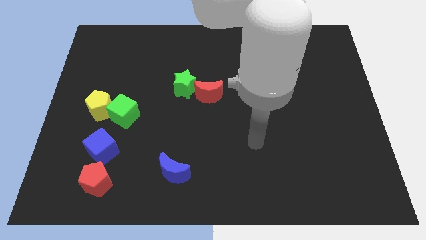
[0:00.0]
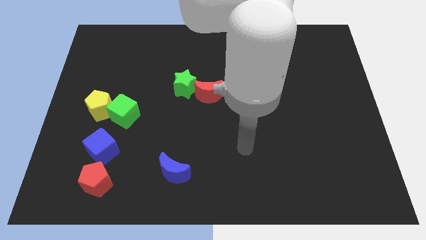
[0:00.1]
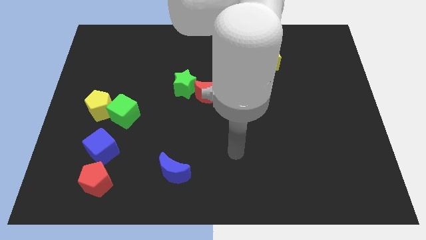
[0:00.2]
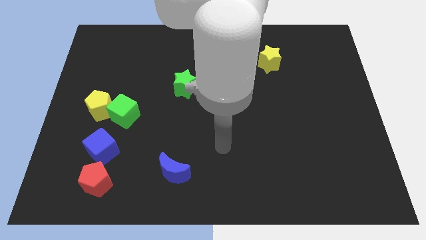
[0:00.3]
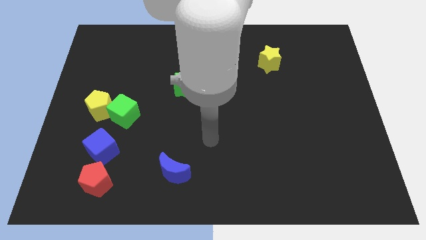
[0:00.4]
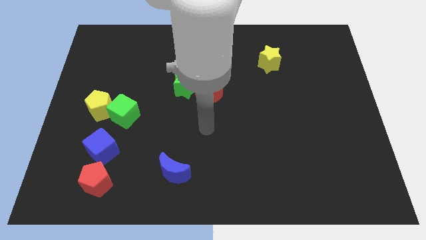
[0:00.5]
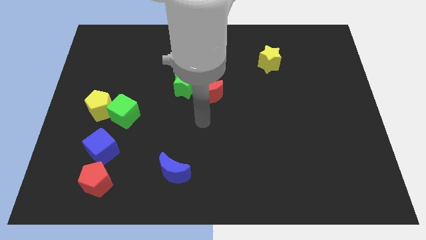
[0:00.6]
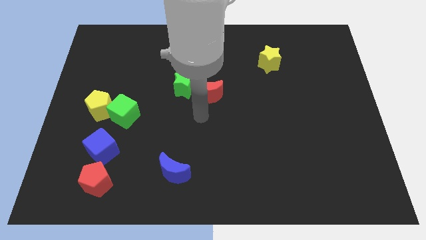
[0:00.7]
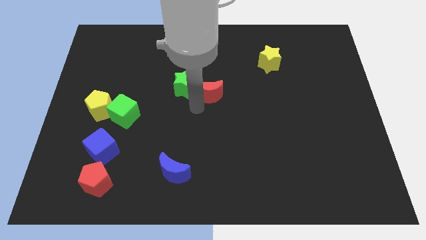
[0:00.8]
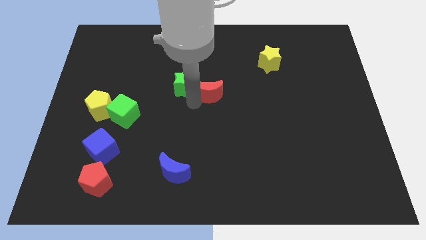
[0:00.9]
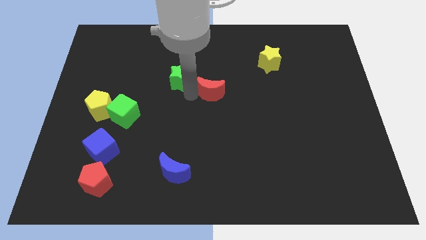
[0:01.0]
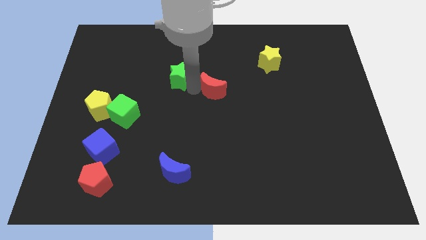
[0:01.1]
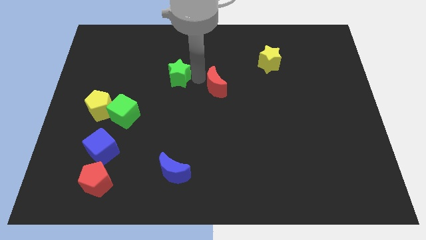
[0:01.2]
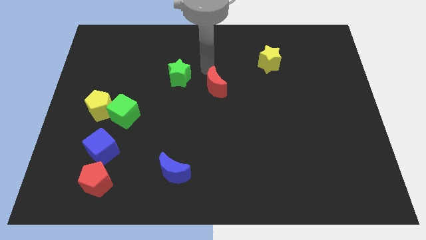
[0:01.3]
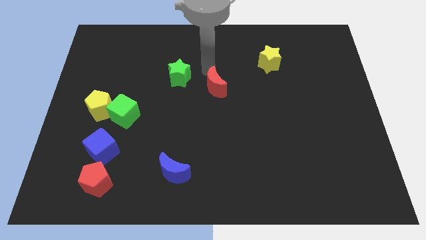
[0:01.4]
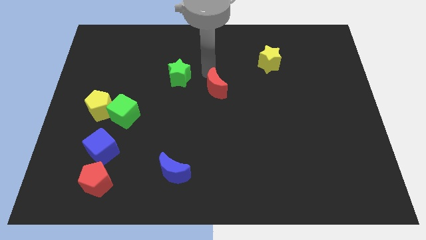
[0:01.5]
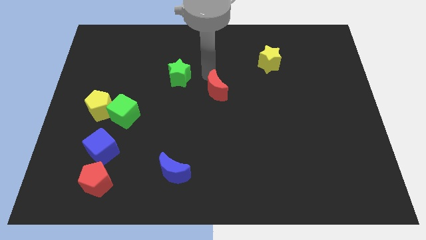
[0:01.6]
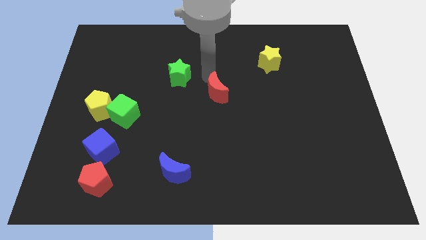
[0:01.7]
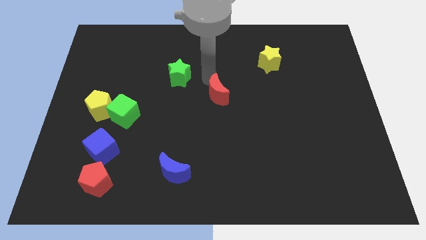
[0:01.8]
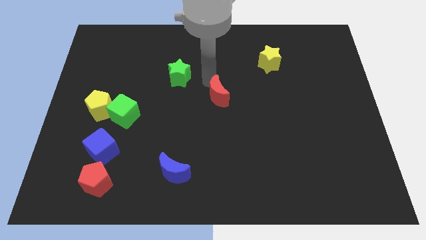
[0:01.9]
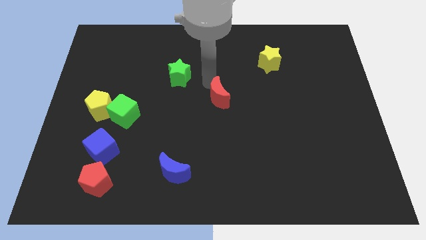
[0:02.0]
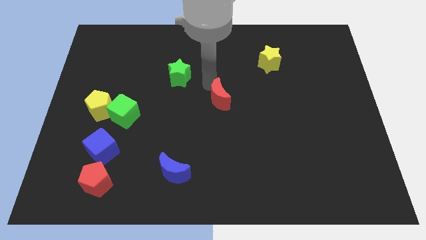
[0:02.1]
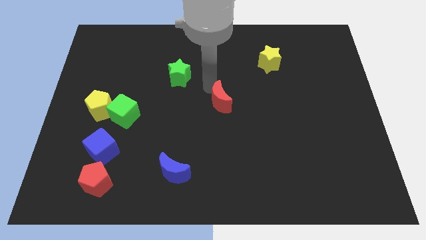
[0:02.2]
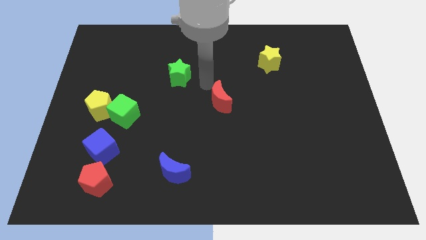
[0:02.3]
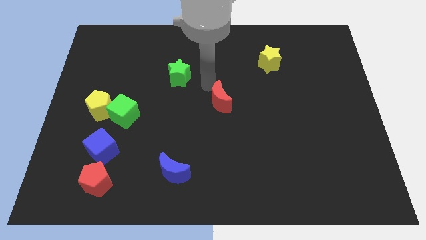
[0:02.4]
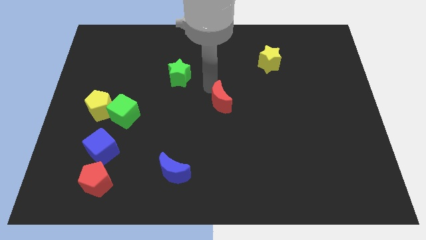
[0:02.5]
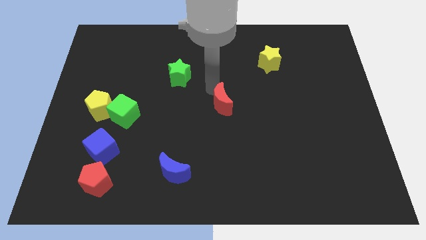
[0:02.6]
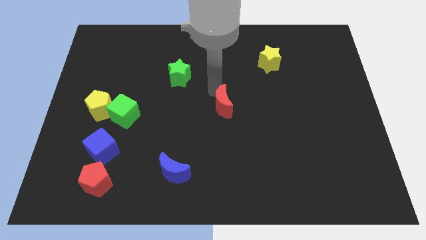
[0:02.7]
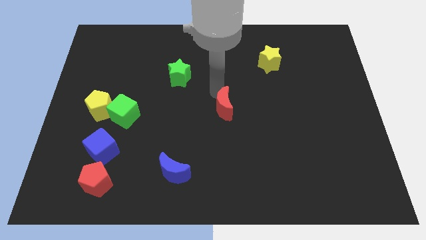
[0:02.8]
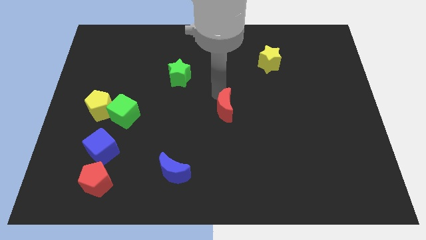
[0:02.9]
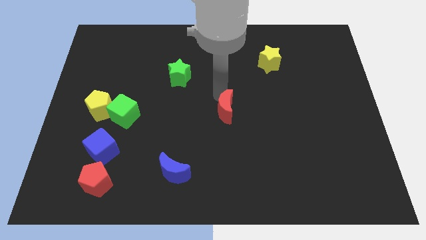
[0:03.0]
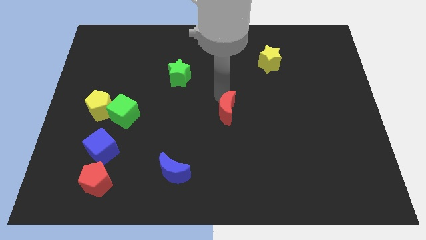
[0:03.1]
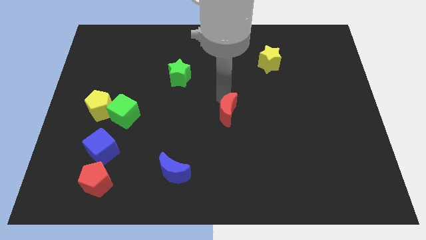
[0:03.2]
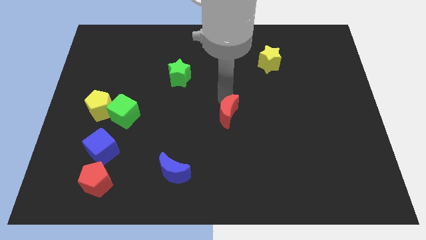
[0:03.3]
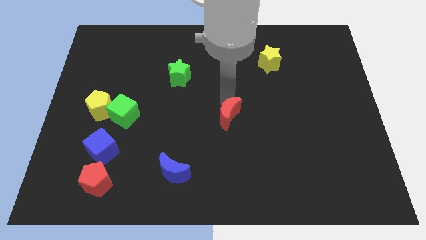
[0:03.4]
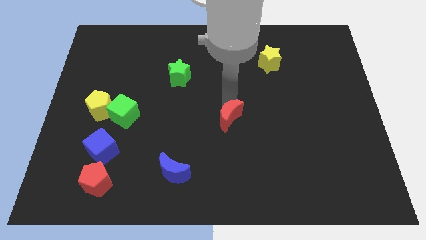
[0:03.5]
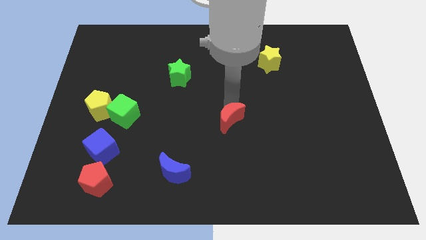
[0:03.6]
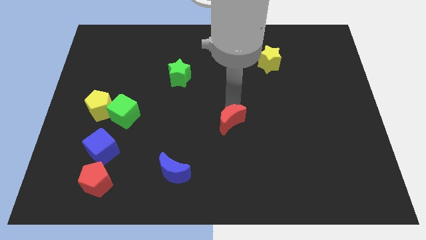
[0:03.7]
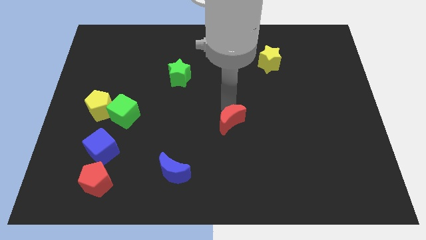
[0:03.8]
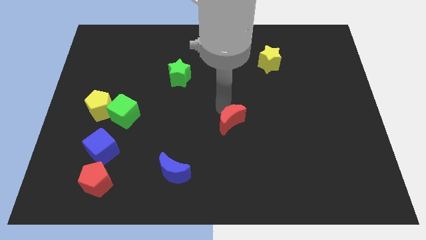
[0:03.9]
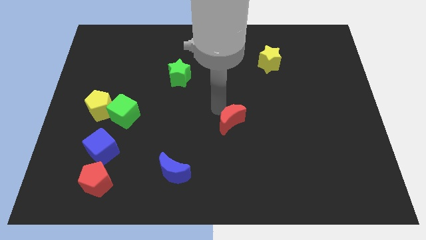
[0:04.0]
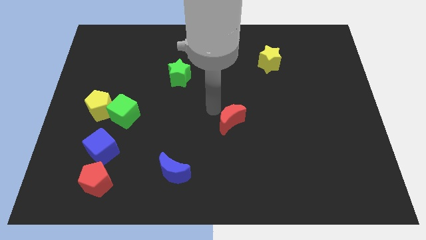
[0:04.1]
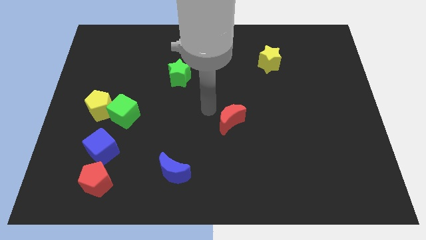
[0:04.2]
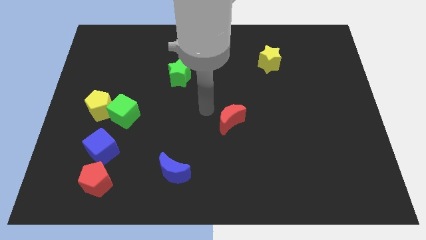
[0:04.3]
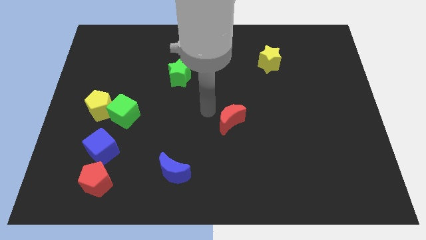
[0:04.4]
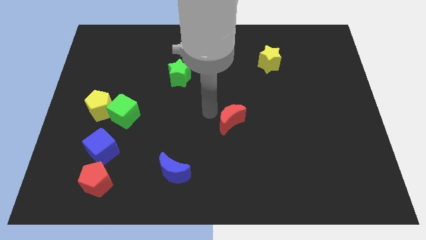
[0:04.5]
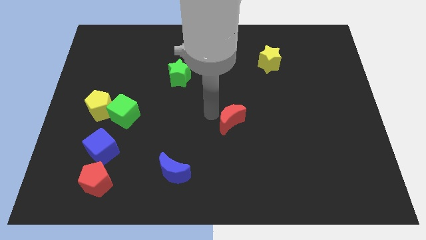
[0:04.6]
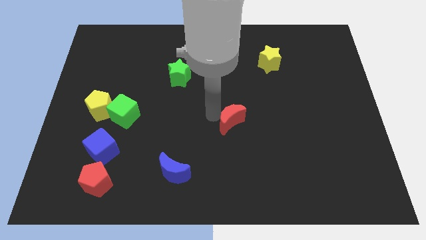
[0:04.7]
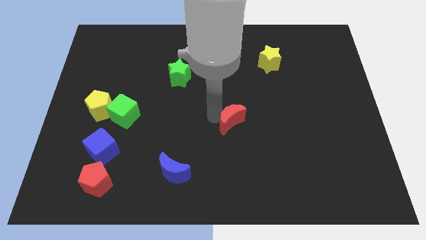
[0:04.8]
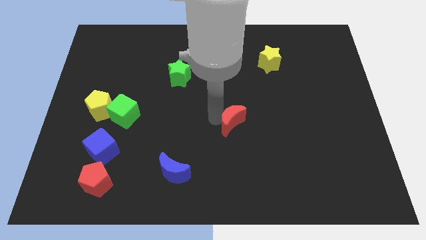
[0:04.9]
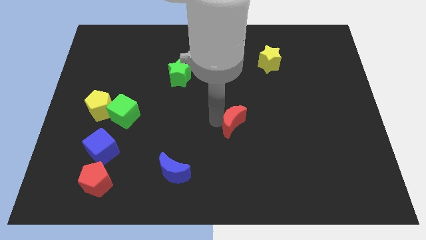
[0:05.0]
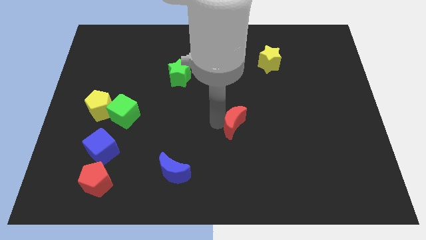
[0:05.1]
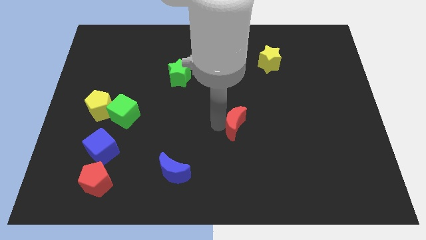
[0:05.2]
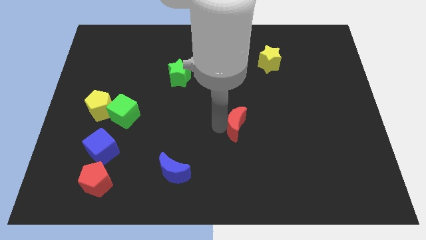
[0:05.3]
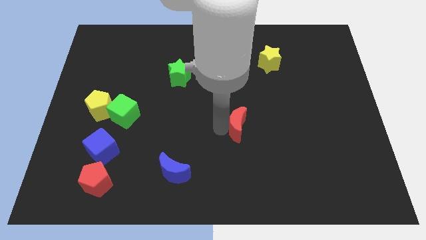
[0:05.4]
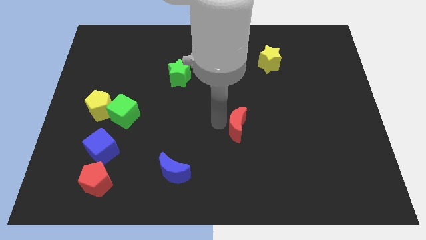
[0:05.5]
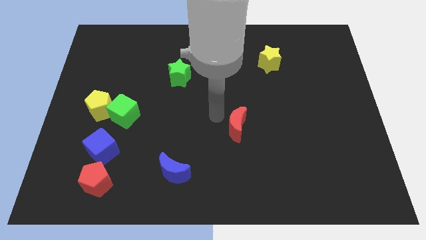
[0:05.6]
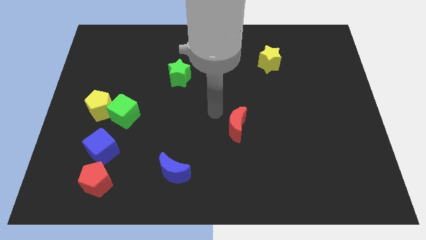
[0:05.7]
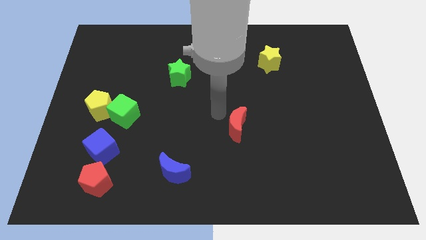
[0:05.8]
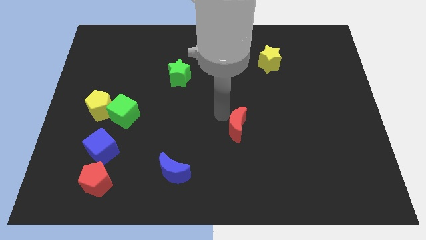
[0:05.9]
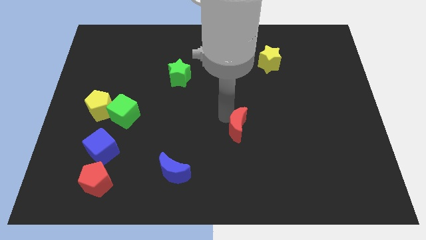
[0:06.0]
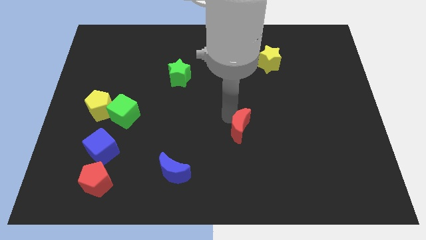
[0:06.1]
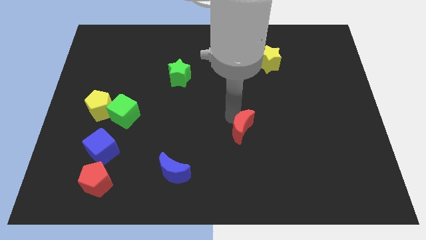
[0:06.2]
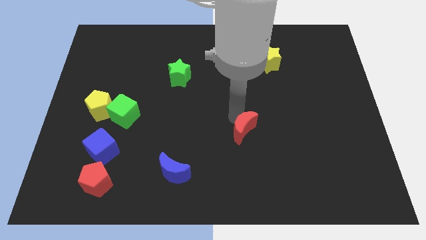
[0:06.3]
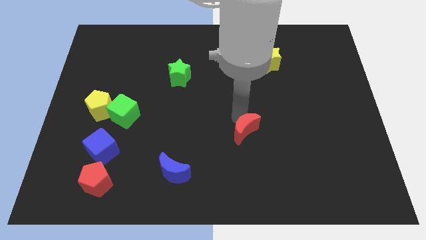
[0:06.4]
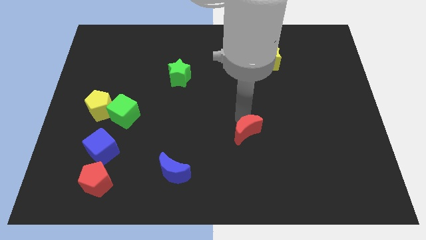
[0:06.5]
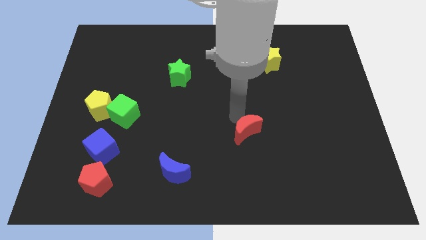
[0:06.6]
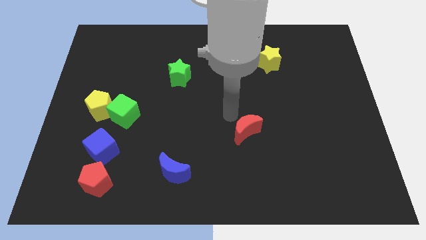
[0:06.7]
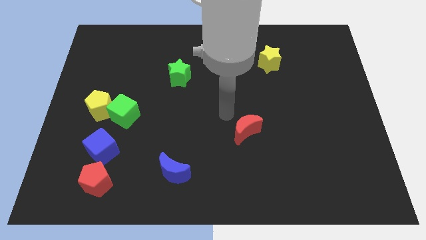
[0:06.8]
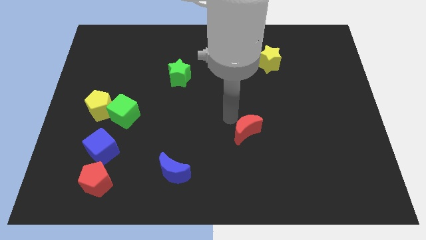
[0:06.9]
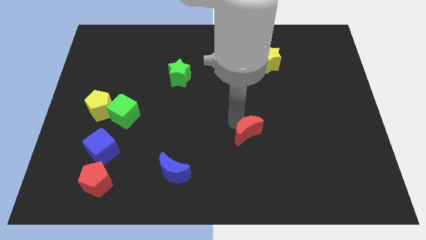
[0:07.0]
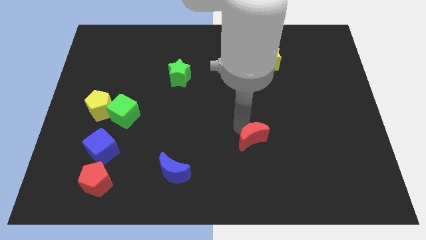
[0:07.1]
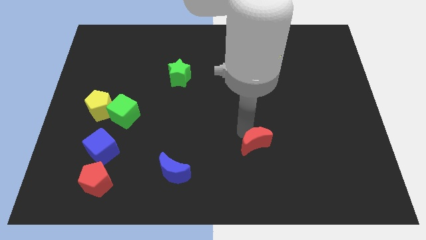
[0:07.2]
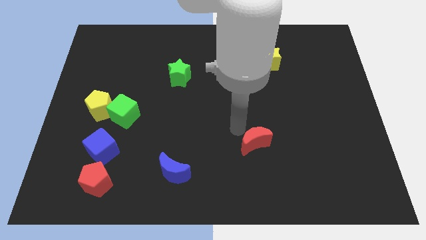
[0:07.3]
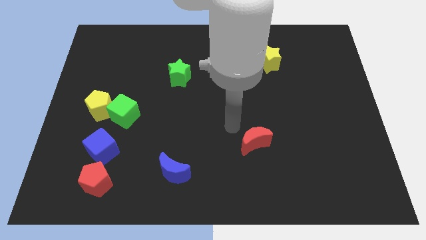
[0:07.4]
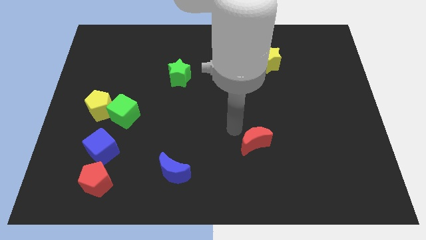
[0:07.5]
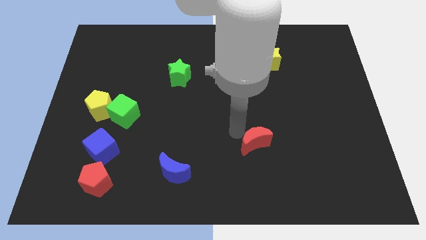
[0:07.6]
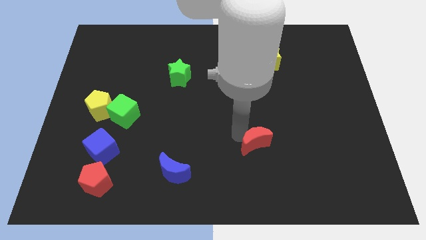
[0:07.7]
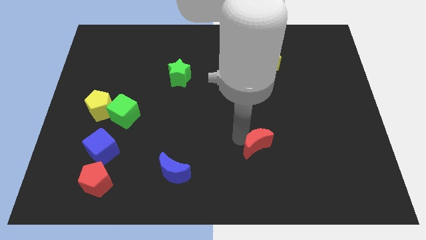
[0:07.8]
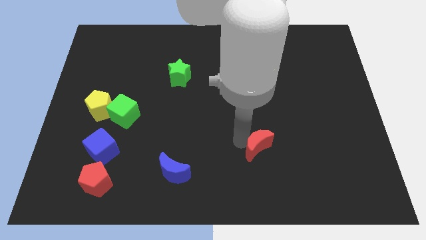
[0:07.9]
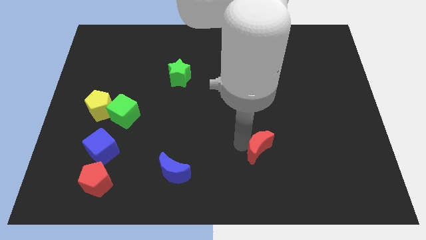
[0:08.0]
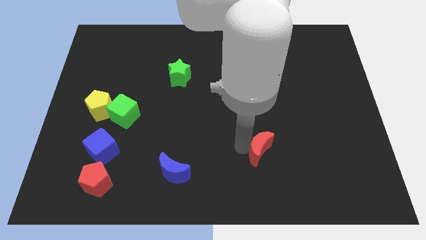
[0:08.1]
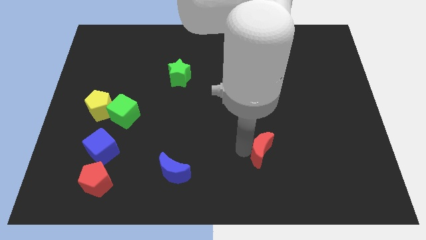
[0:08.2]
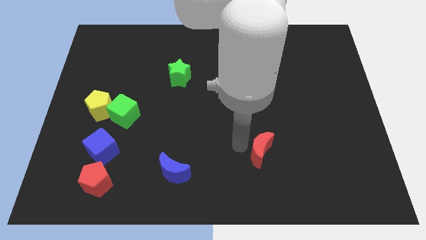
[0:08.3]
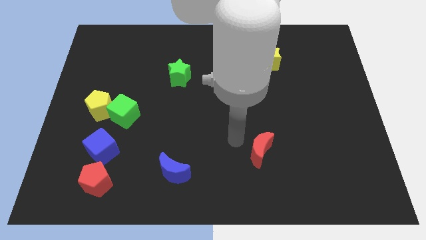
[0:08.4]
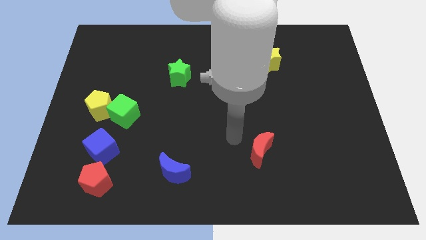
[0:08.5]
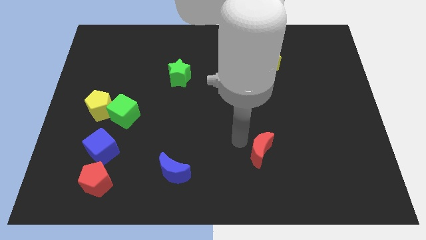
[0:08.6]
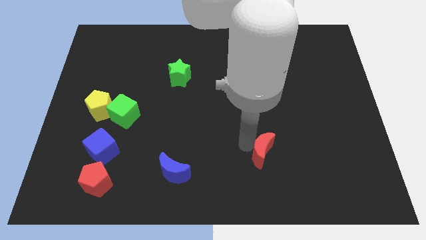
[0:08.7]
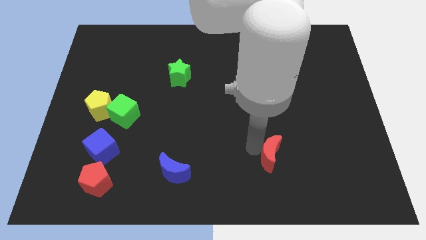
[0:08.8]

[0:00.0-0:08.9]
slide the red moon downwards and to the right diagonally
